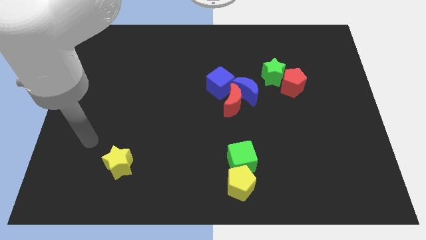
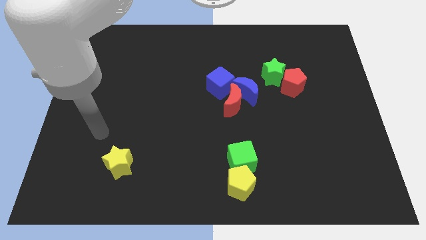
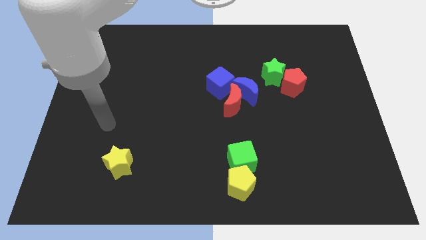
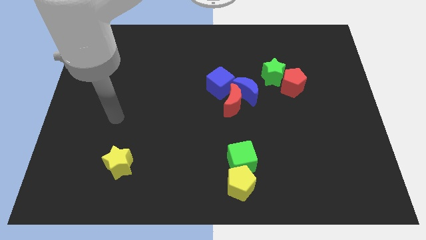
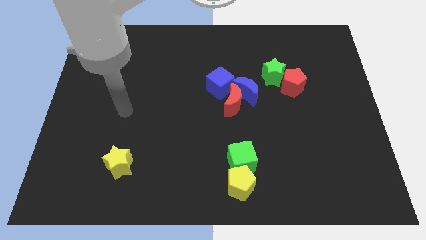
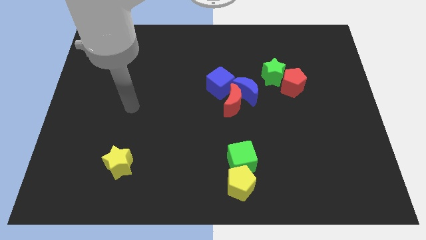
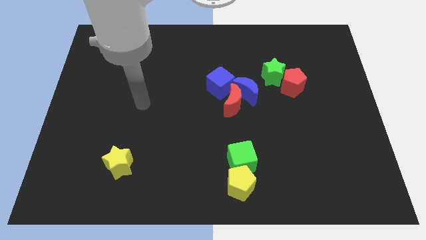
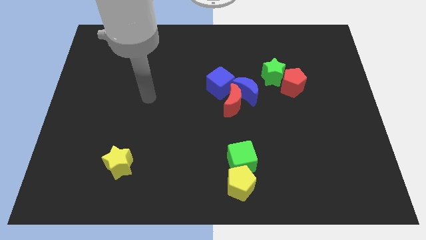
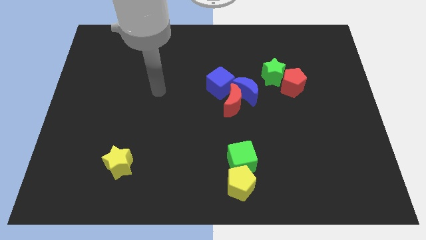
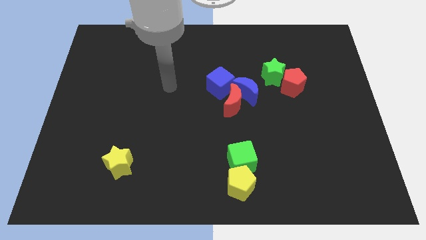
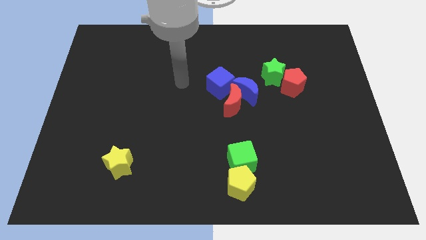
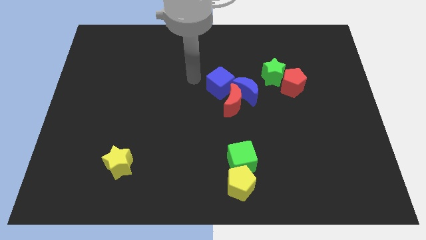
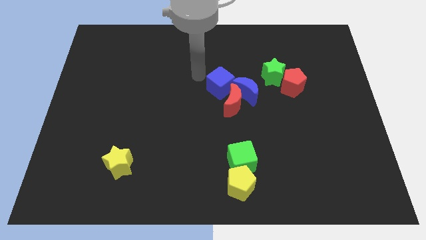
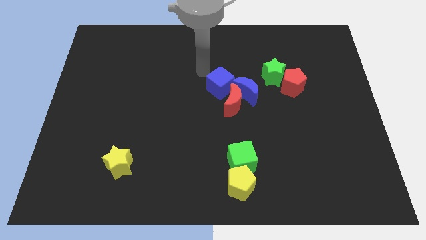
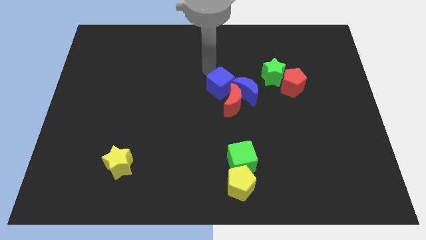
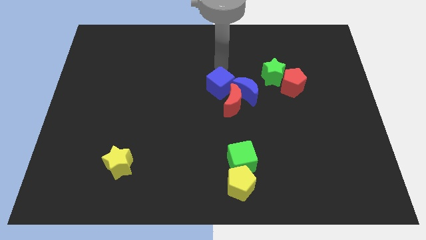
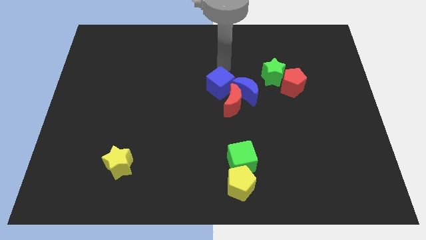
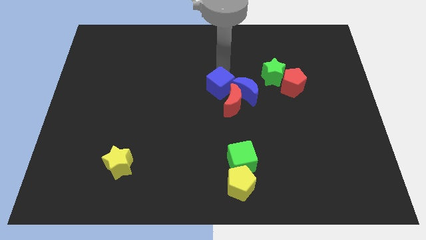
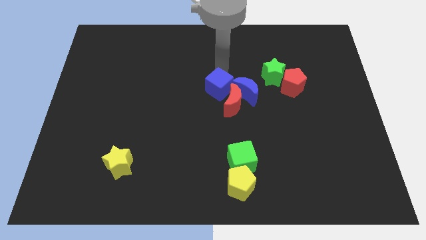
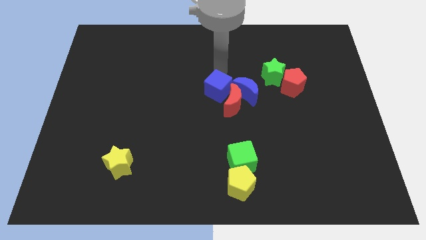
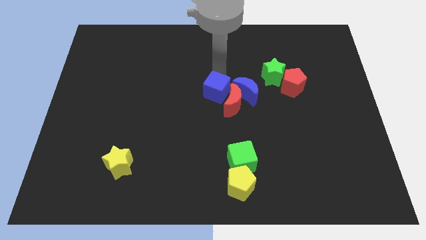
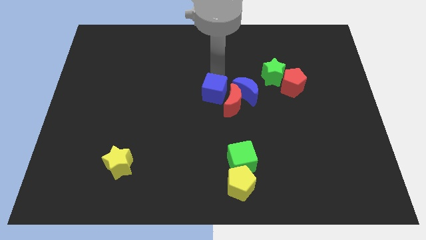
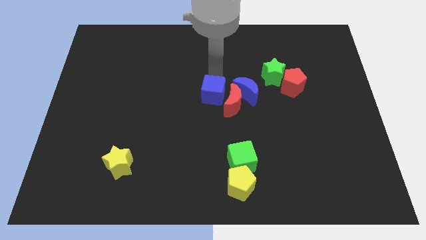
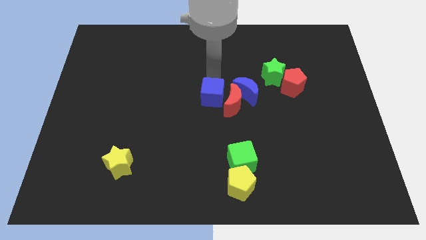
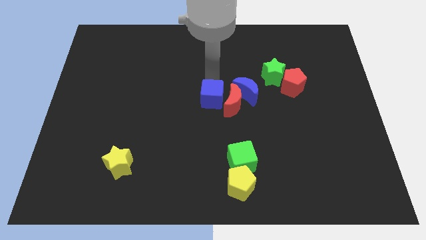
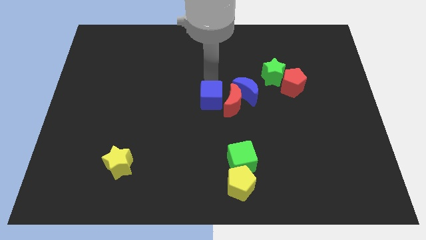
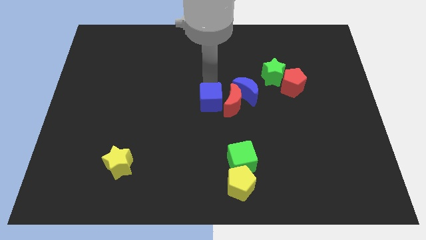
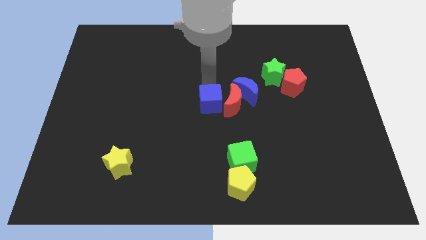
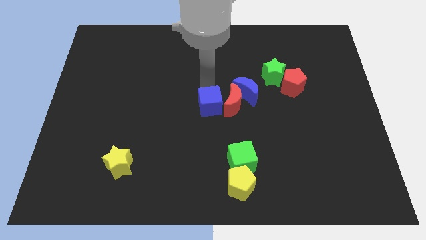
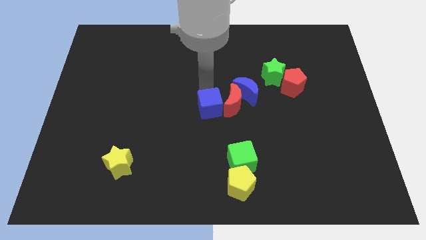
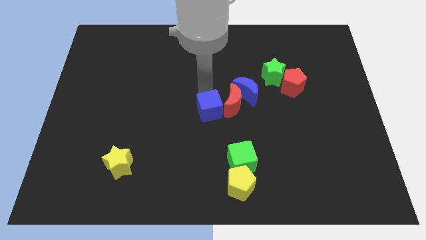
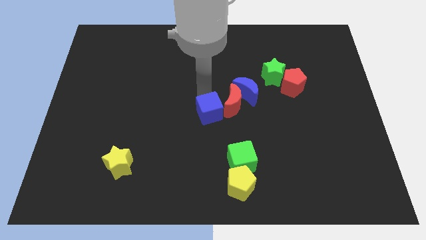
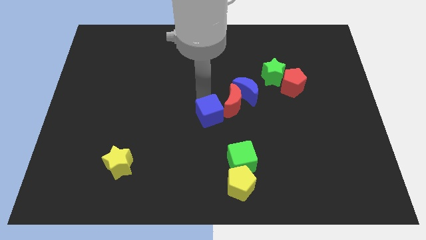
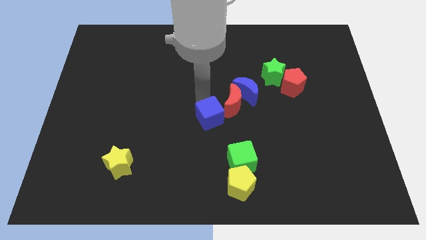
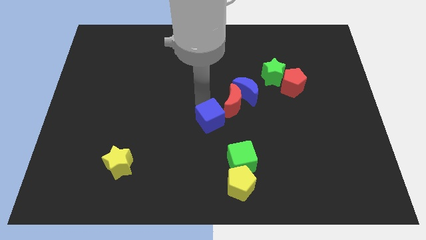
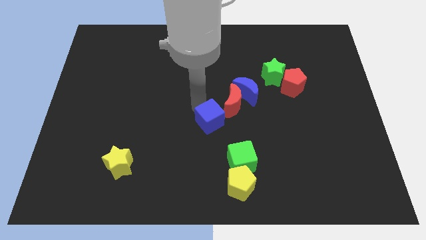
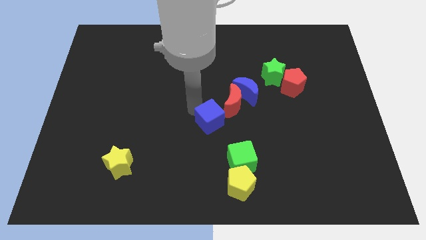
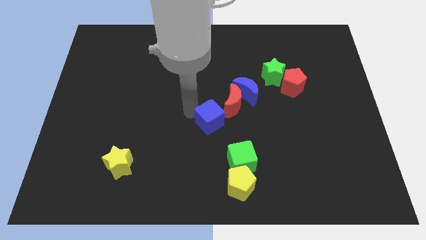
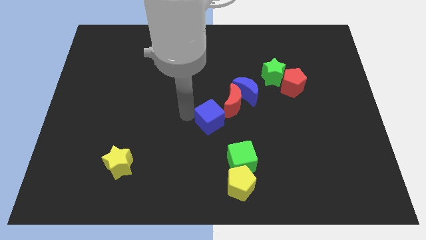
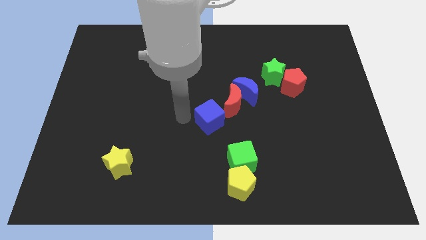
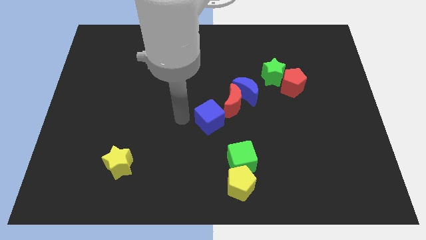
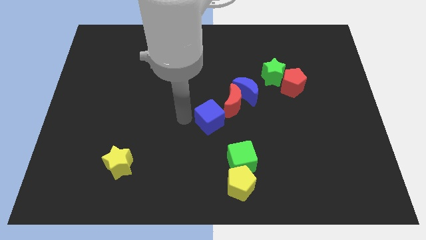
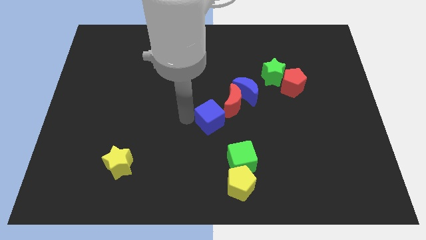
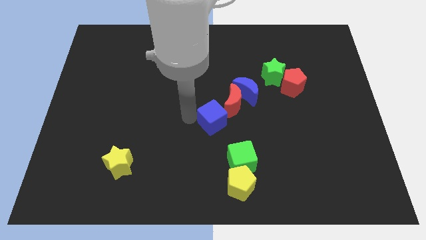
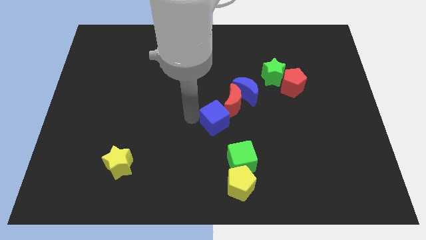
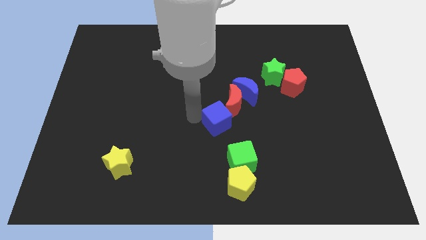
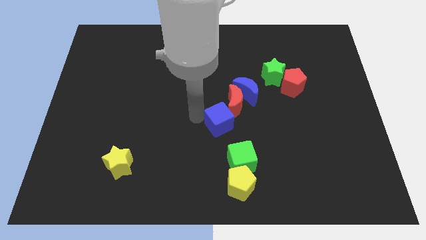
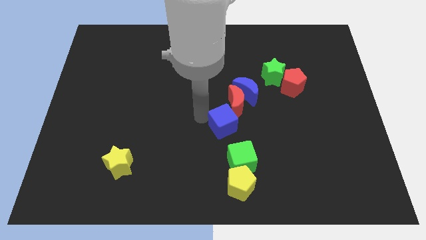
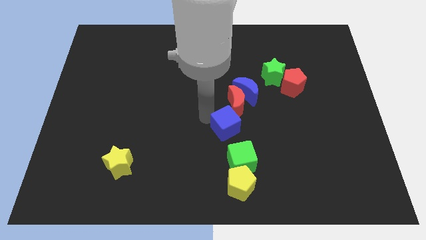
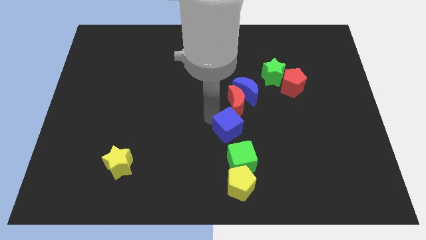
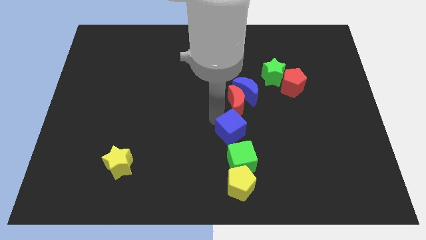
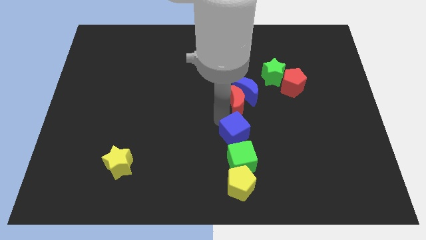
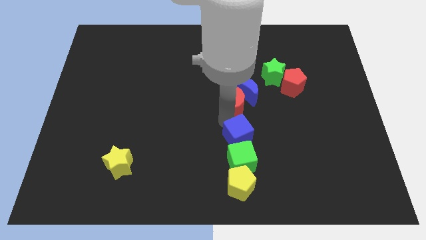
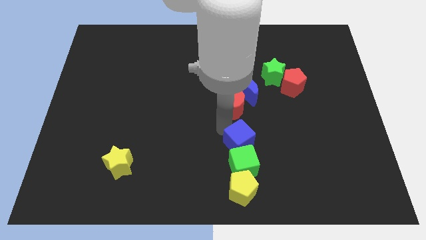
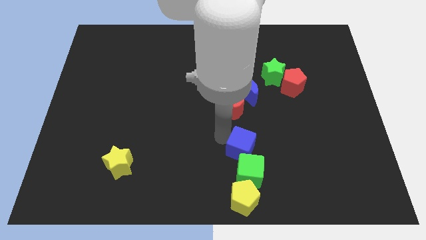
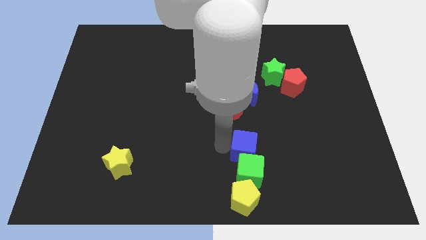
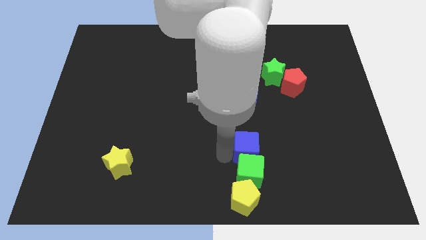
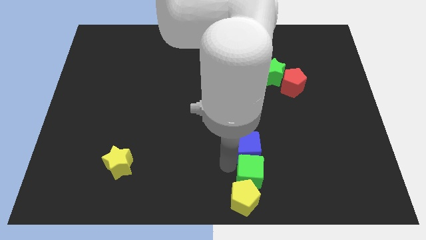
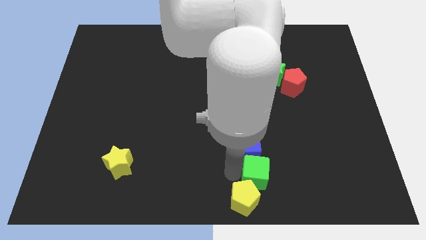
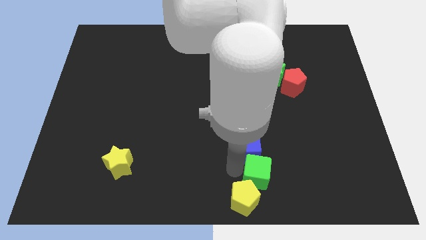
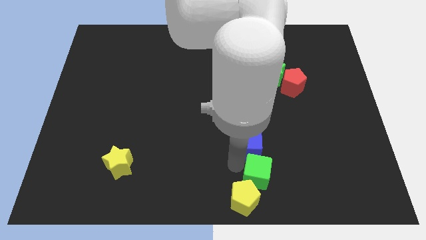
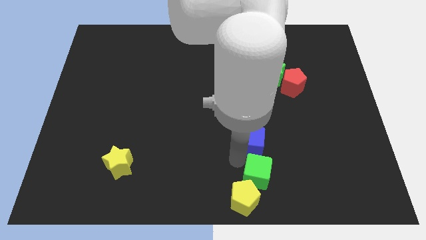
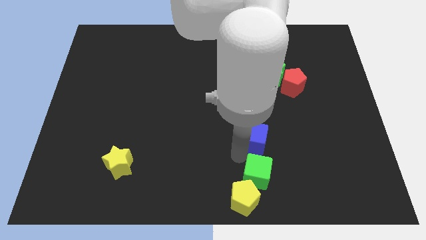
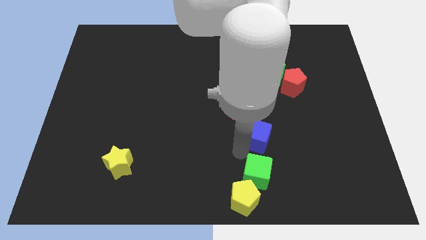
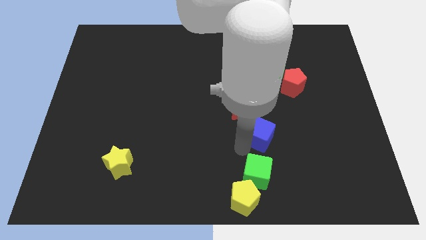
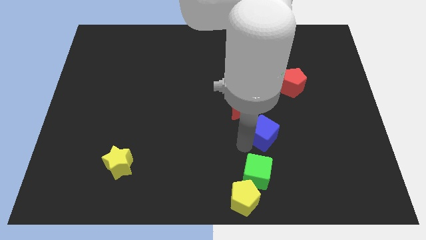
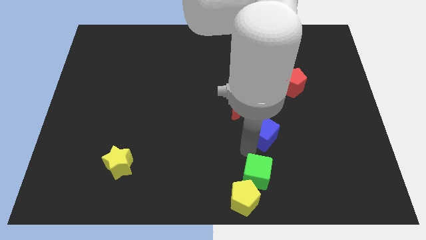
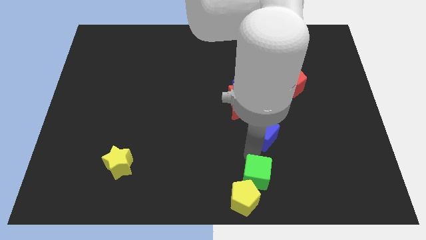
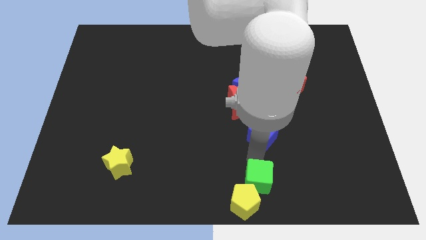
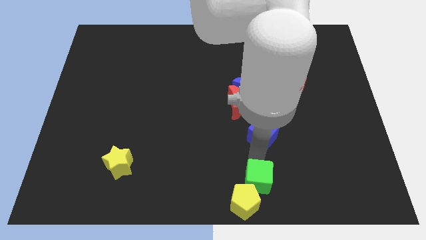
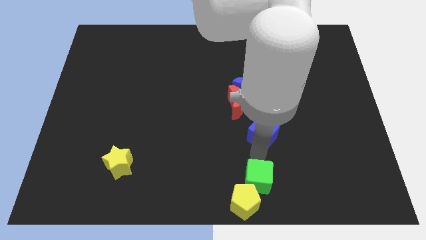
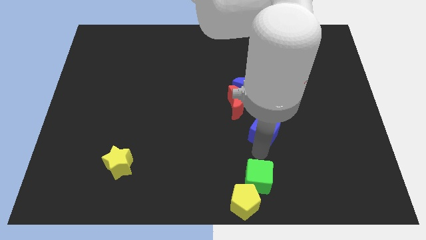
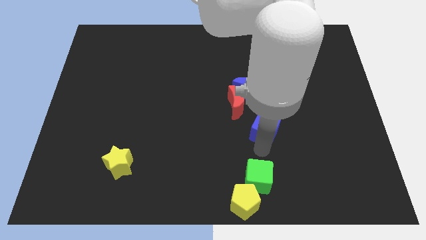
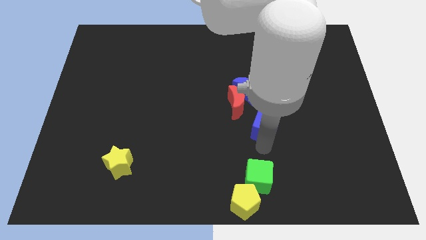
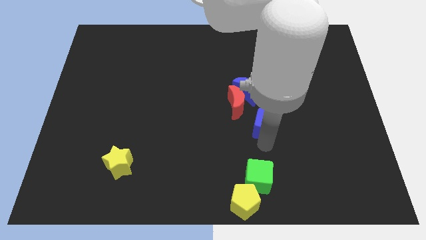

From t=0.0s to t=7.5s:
put the blue cube diagonally down and to the right of the blue moon
